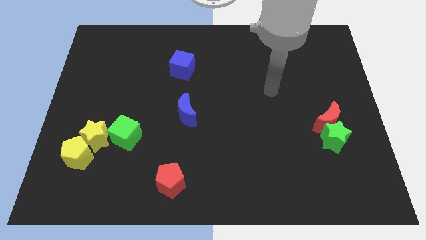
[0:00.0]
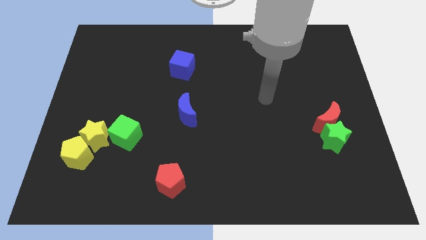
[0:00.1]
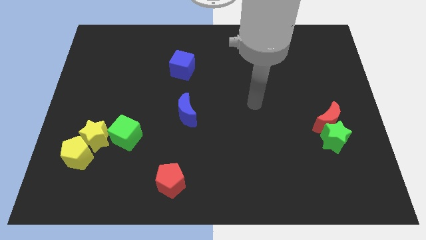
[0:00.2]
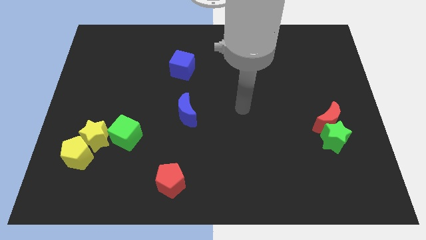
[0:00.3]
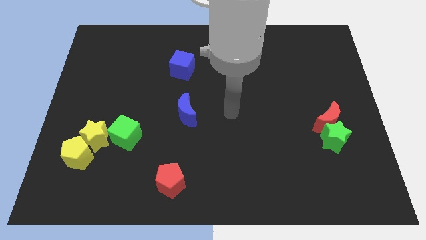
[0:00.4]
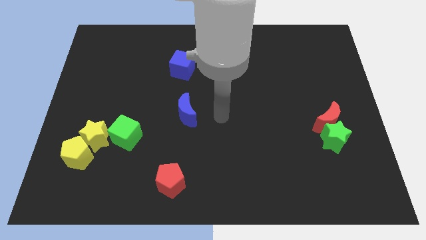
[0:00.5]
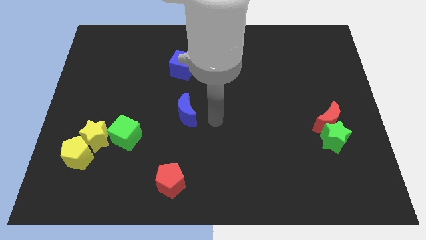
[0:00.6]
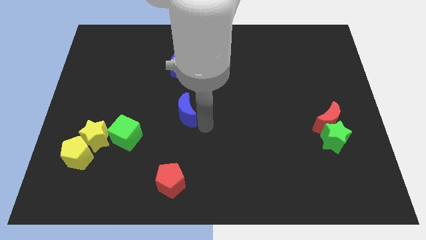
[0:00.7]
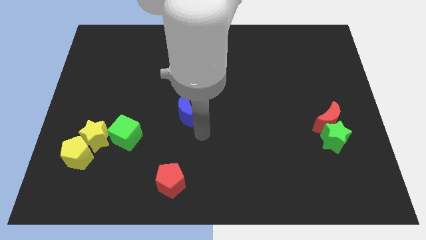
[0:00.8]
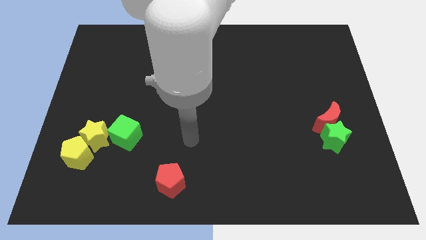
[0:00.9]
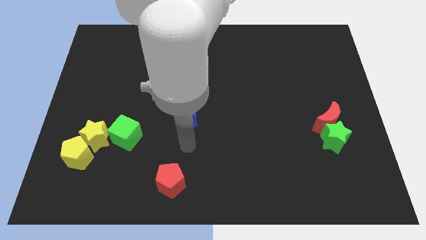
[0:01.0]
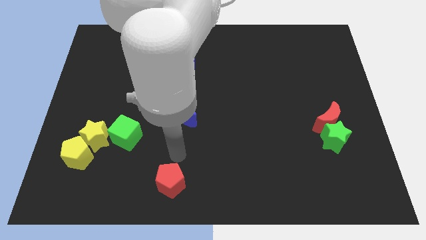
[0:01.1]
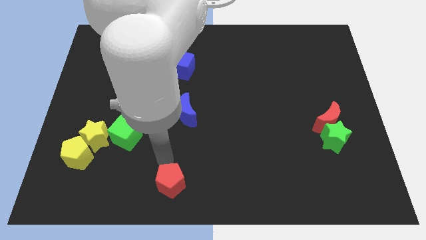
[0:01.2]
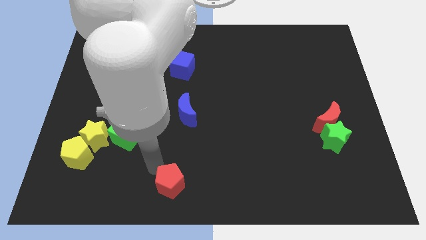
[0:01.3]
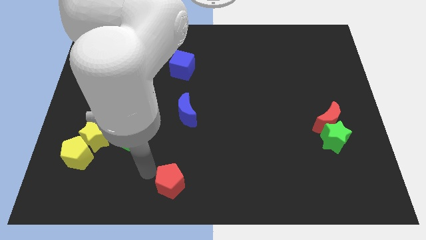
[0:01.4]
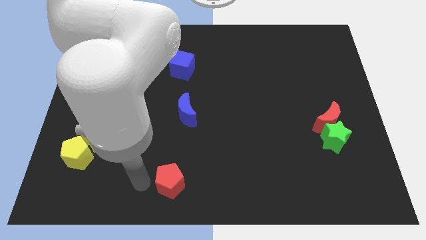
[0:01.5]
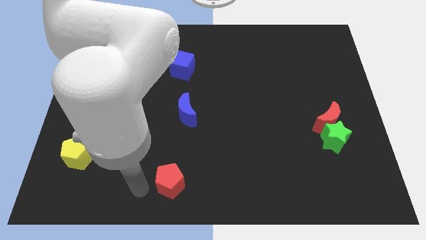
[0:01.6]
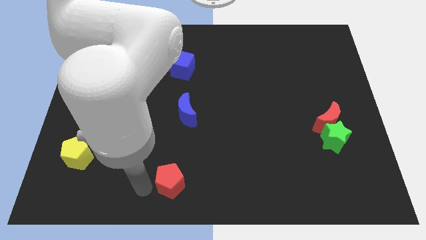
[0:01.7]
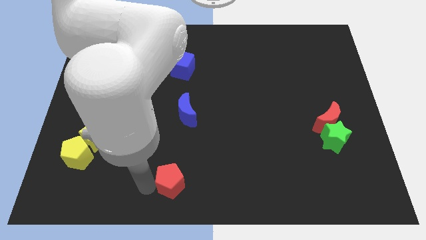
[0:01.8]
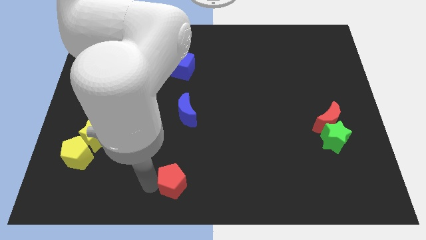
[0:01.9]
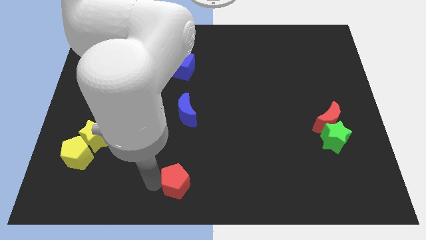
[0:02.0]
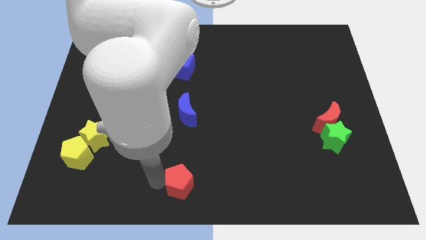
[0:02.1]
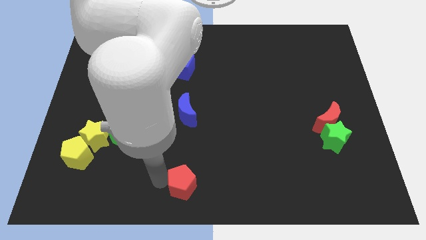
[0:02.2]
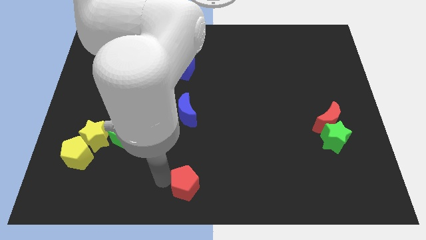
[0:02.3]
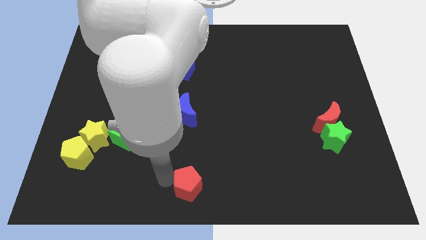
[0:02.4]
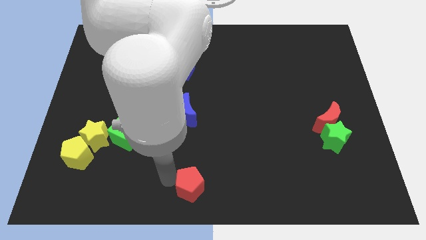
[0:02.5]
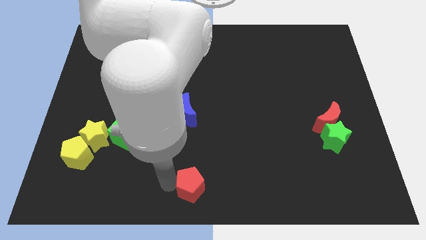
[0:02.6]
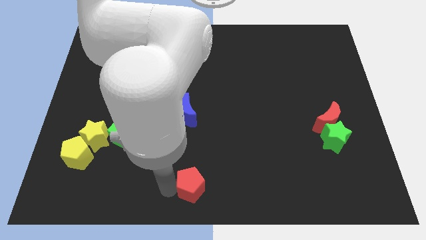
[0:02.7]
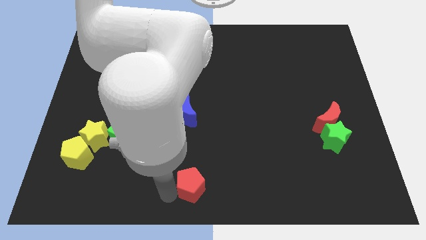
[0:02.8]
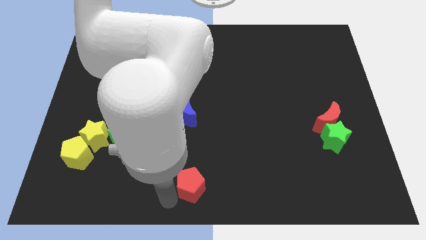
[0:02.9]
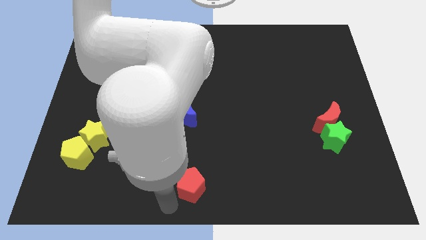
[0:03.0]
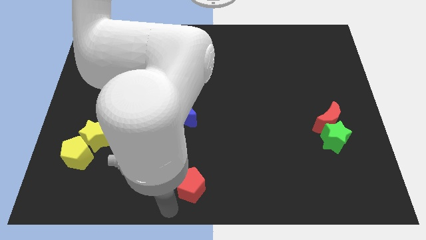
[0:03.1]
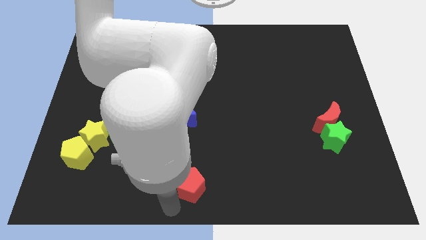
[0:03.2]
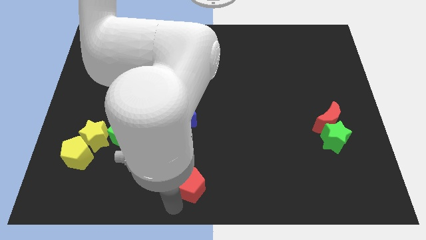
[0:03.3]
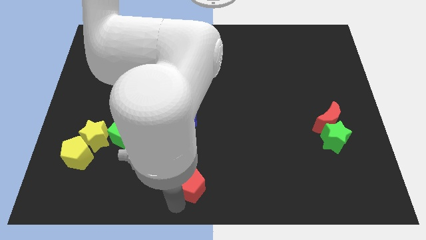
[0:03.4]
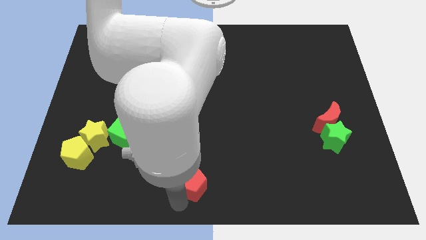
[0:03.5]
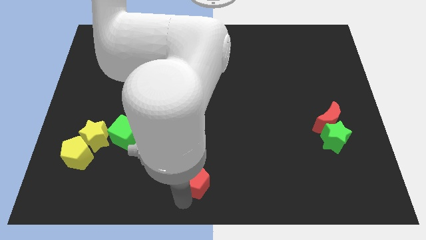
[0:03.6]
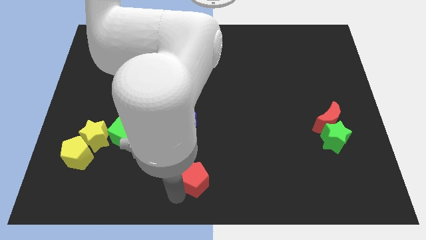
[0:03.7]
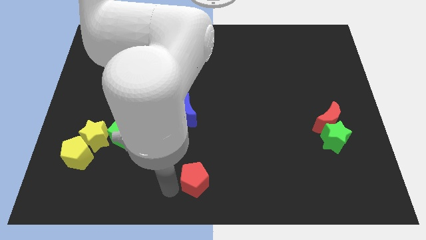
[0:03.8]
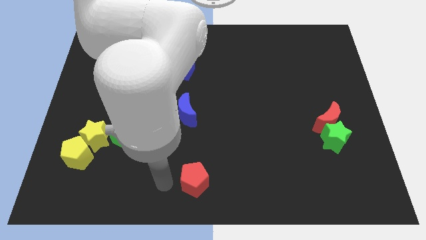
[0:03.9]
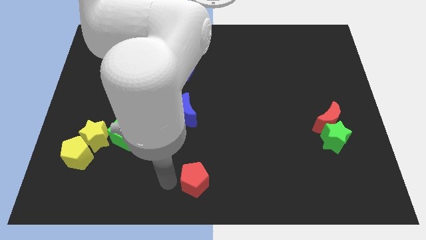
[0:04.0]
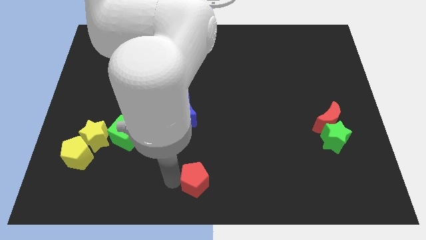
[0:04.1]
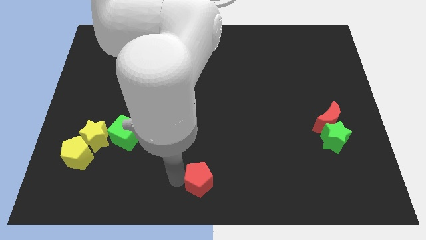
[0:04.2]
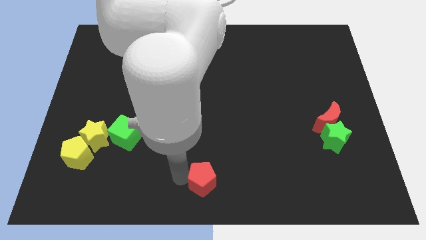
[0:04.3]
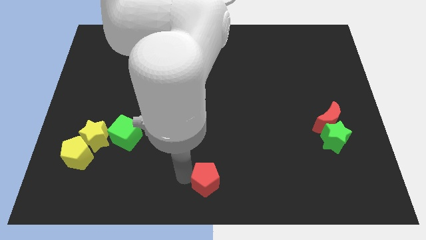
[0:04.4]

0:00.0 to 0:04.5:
push the red pentagon right a little bit

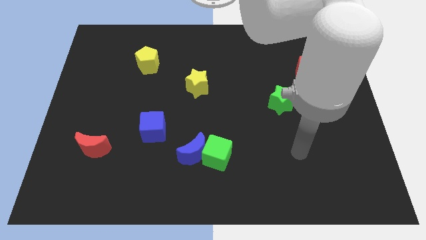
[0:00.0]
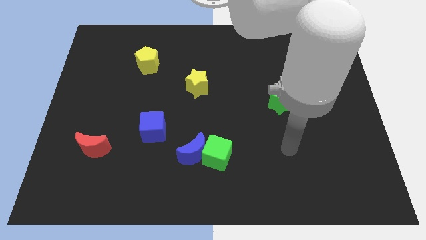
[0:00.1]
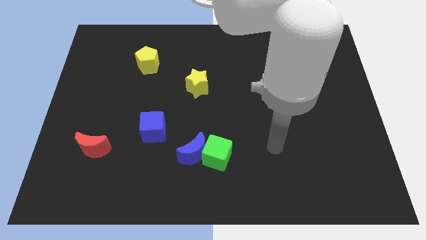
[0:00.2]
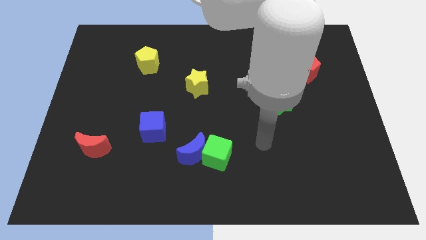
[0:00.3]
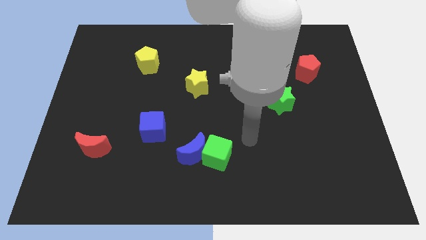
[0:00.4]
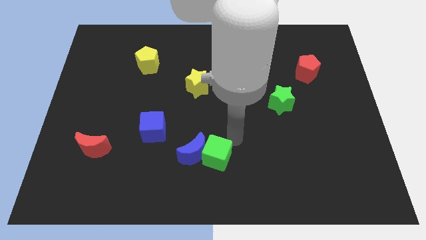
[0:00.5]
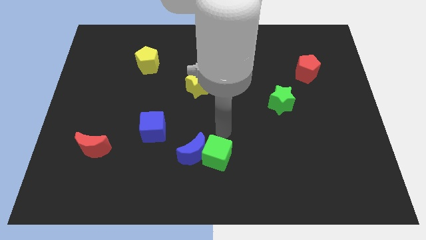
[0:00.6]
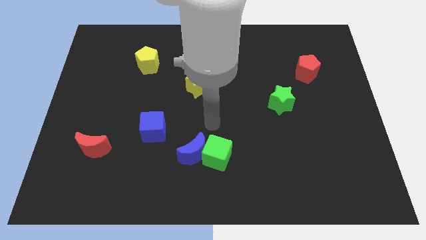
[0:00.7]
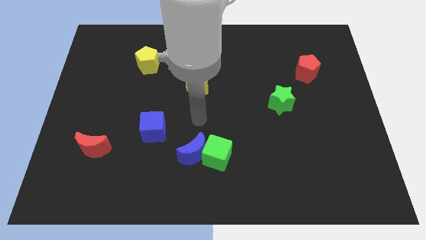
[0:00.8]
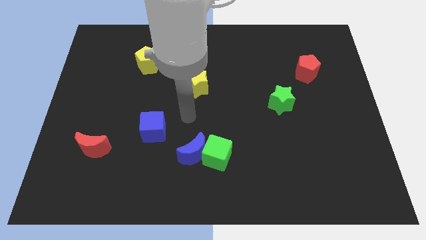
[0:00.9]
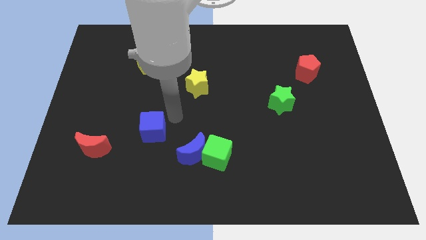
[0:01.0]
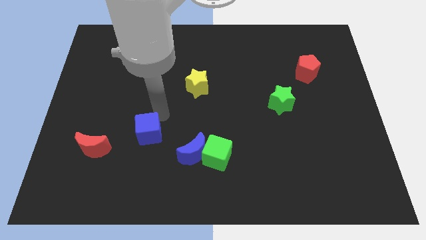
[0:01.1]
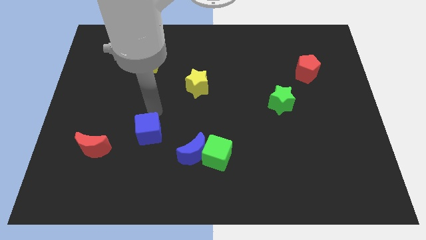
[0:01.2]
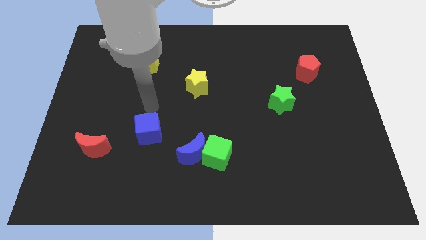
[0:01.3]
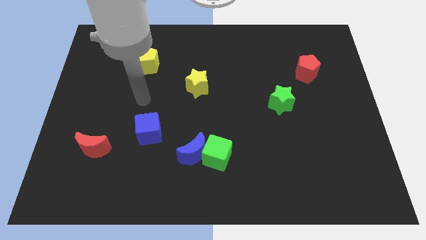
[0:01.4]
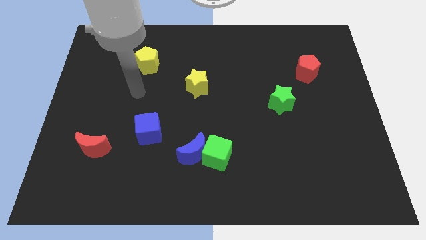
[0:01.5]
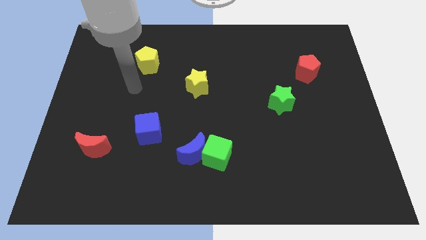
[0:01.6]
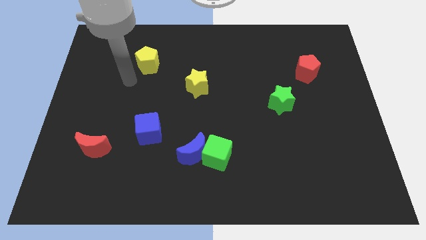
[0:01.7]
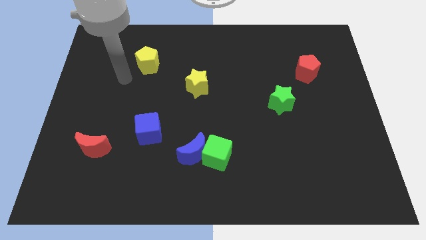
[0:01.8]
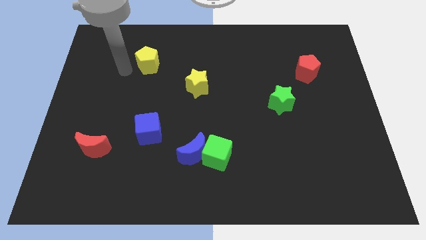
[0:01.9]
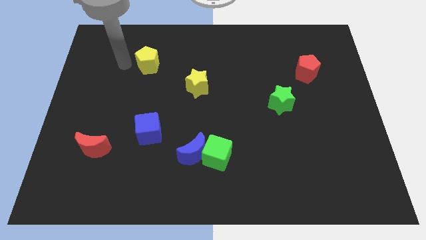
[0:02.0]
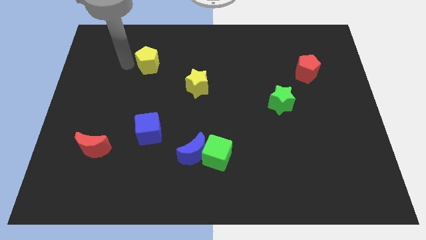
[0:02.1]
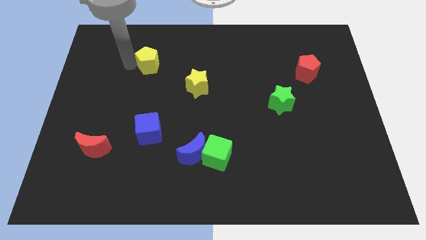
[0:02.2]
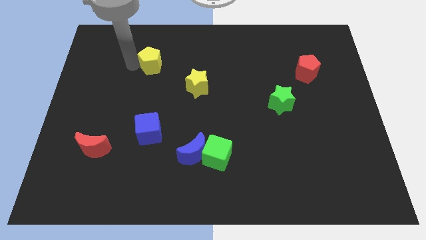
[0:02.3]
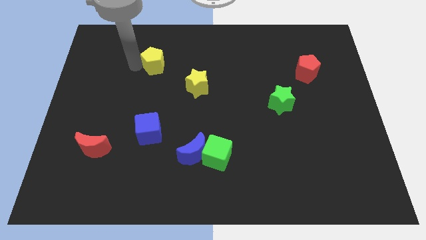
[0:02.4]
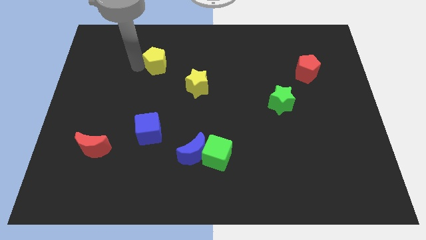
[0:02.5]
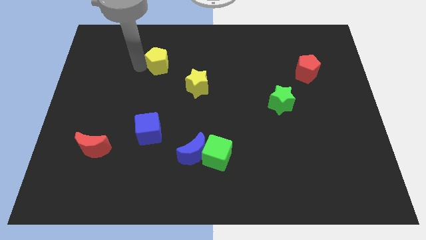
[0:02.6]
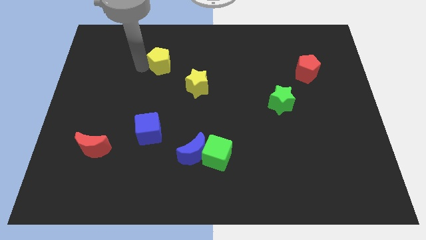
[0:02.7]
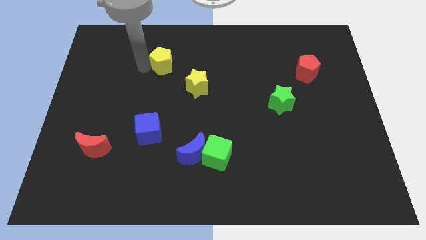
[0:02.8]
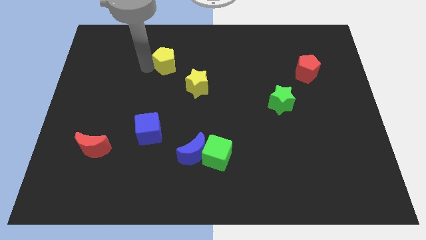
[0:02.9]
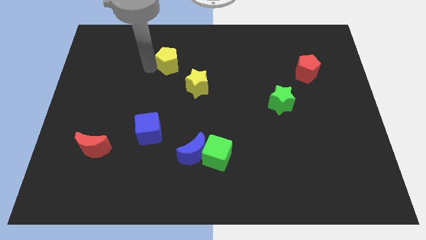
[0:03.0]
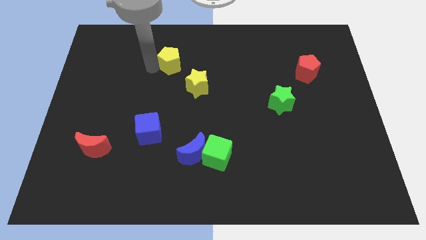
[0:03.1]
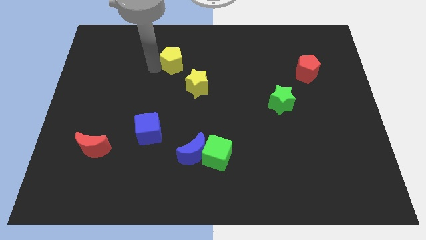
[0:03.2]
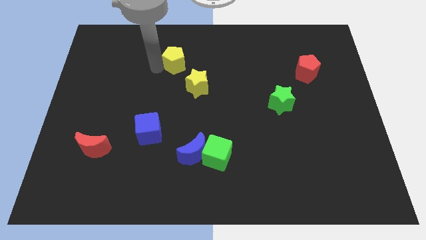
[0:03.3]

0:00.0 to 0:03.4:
slide the yellow pentagon a little bit right

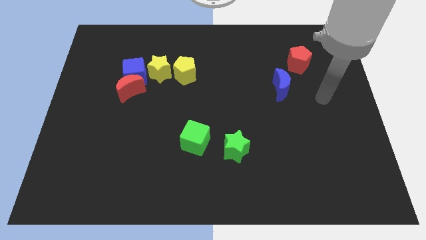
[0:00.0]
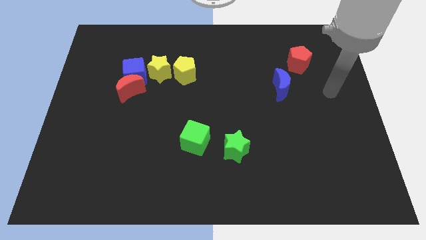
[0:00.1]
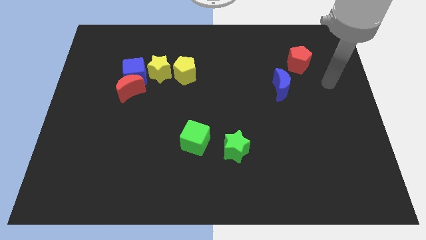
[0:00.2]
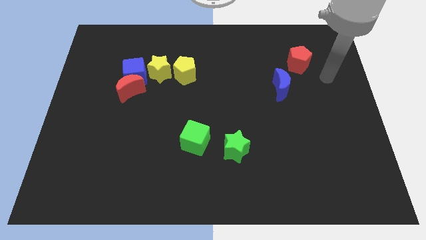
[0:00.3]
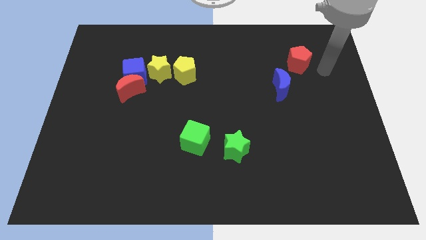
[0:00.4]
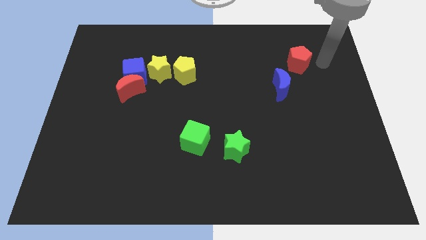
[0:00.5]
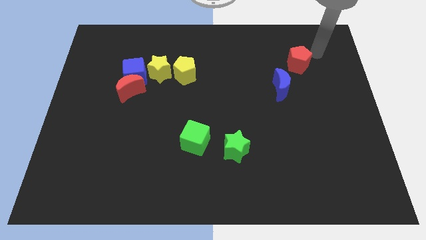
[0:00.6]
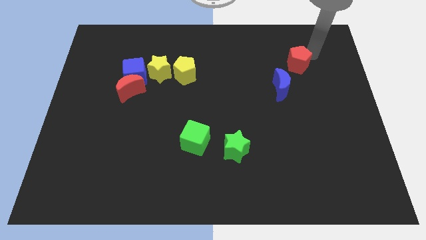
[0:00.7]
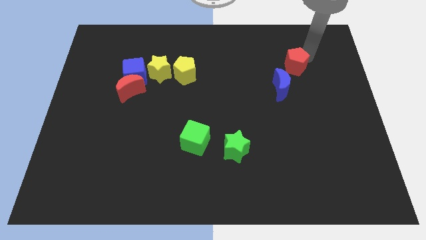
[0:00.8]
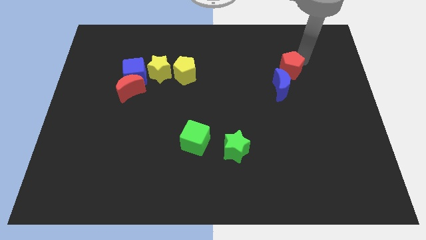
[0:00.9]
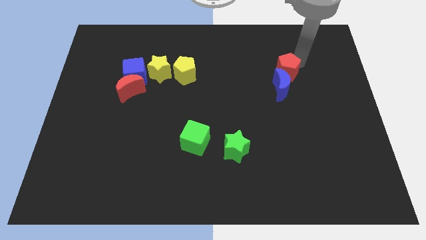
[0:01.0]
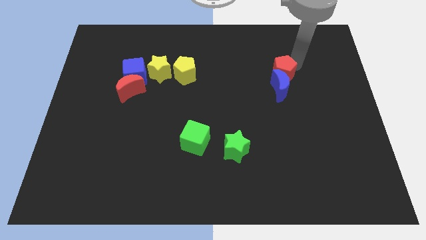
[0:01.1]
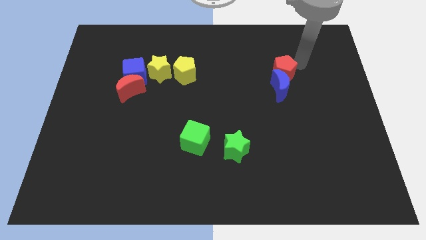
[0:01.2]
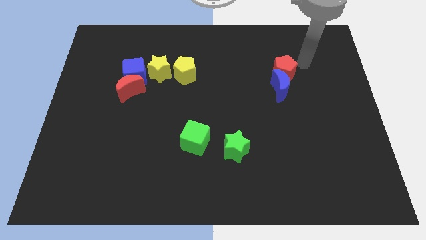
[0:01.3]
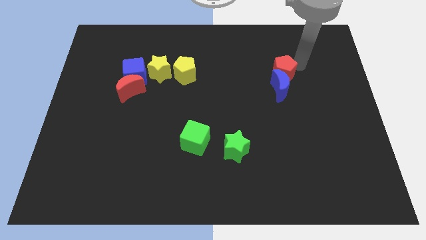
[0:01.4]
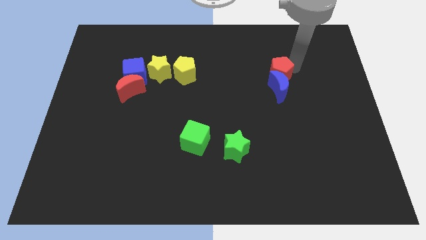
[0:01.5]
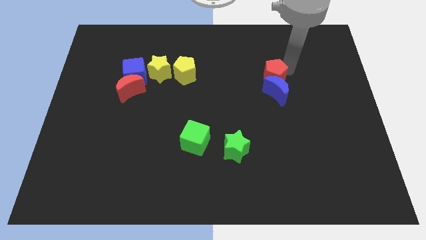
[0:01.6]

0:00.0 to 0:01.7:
move the red pentagon diagonally downwards and to the left a little
